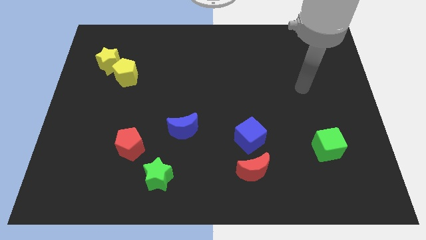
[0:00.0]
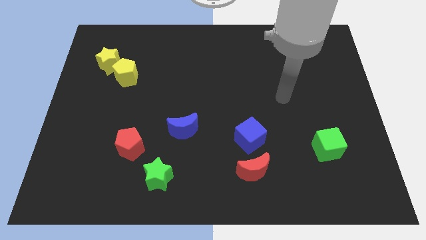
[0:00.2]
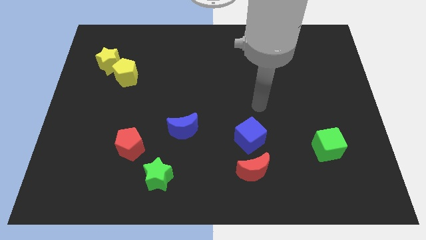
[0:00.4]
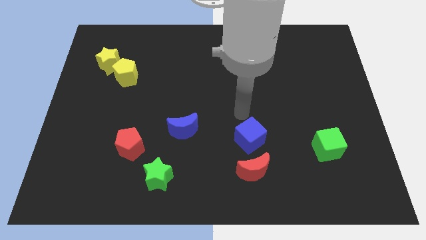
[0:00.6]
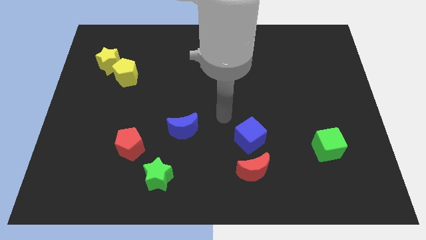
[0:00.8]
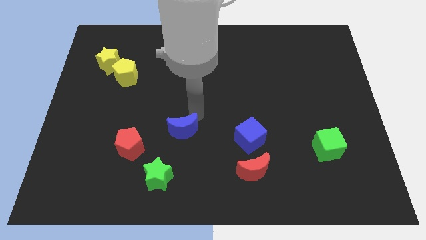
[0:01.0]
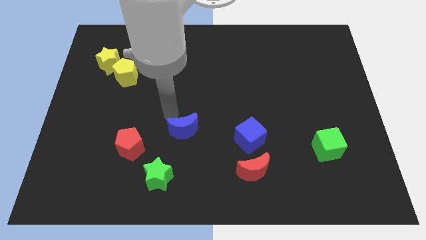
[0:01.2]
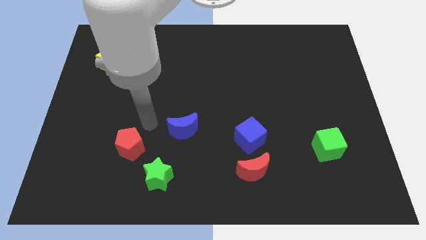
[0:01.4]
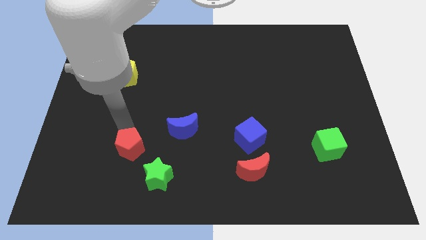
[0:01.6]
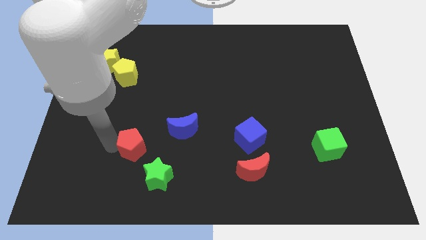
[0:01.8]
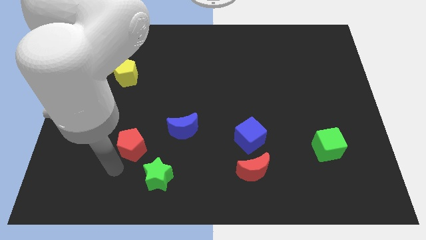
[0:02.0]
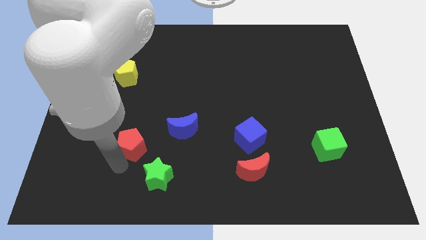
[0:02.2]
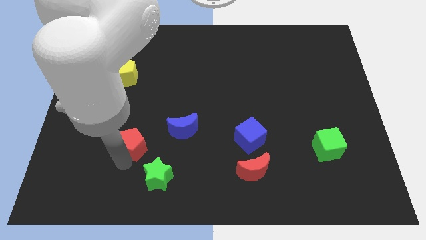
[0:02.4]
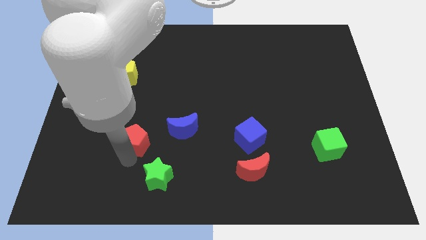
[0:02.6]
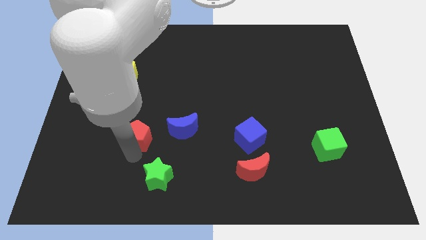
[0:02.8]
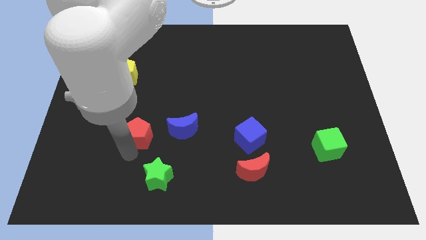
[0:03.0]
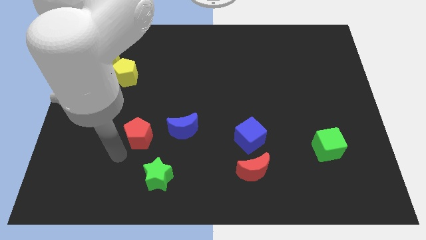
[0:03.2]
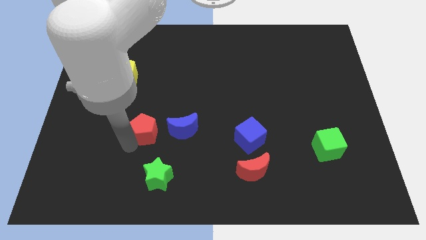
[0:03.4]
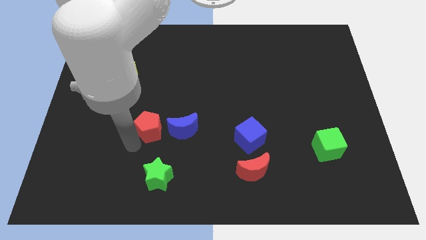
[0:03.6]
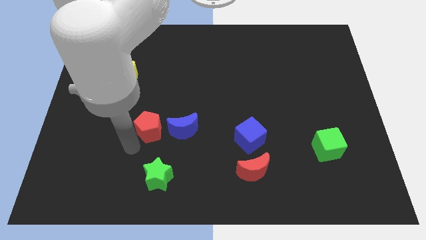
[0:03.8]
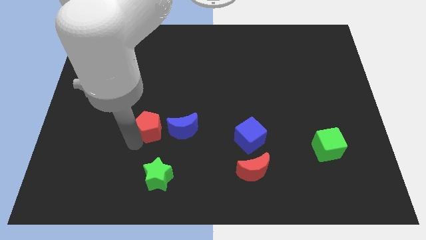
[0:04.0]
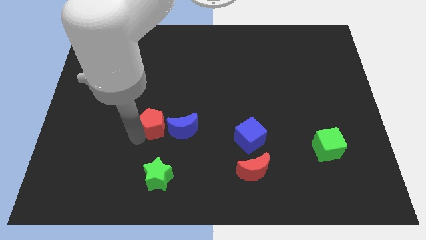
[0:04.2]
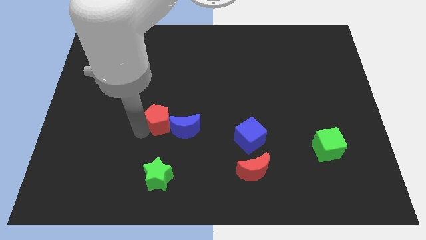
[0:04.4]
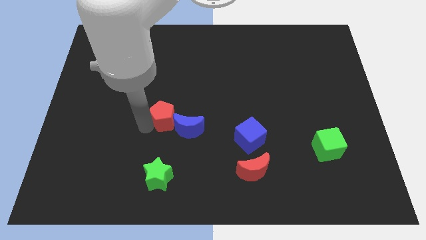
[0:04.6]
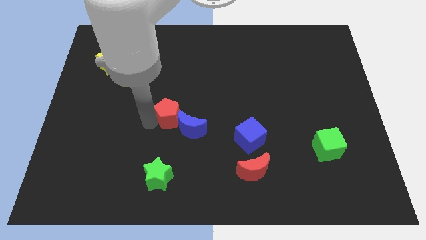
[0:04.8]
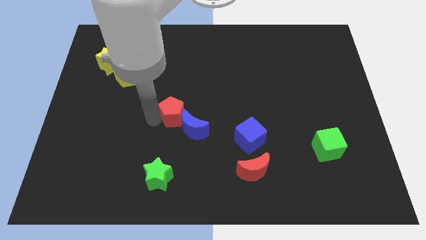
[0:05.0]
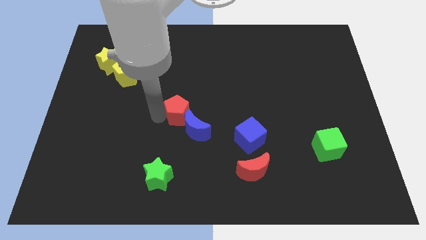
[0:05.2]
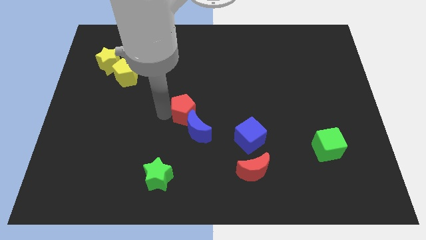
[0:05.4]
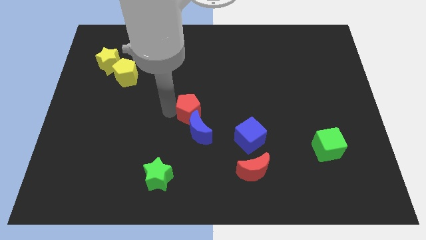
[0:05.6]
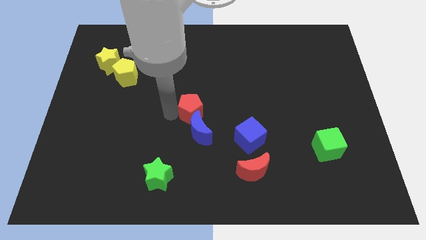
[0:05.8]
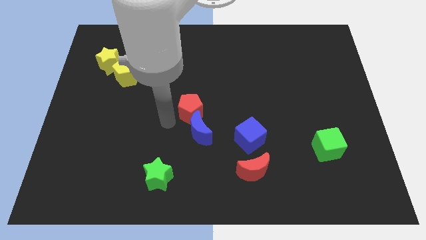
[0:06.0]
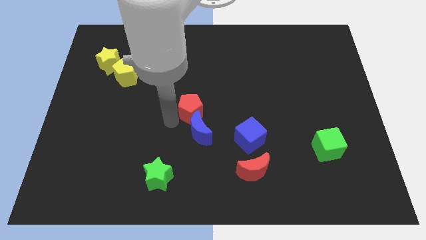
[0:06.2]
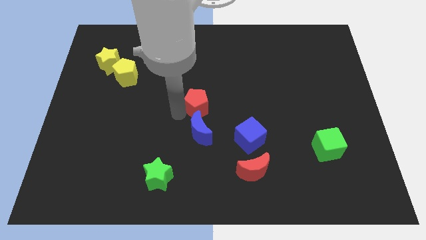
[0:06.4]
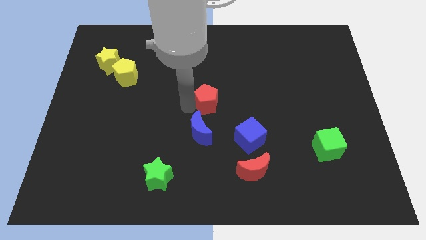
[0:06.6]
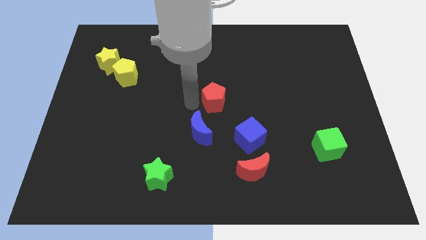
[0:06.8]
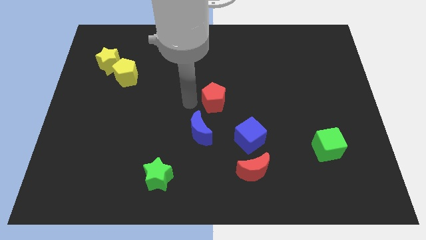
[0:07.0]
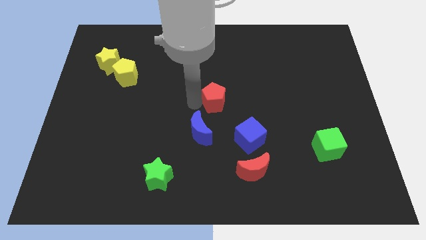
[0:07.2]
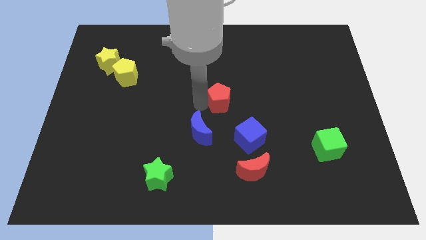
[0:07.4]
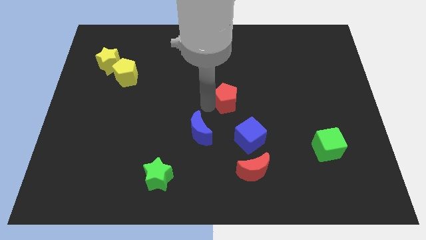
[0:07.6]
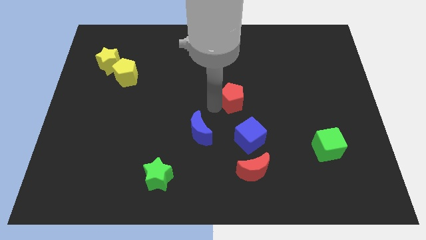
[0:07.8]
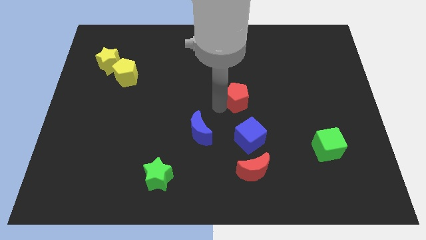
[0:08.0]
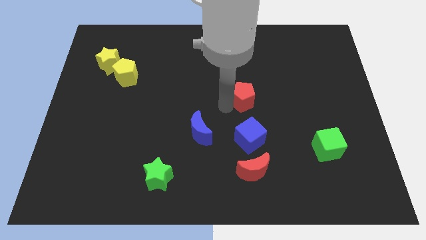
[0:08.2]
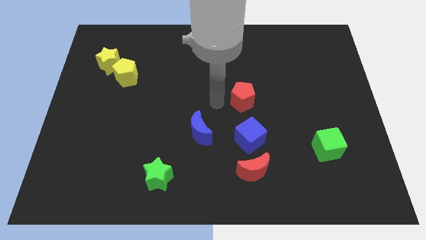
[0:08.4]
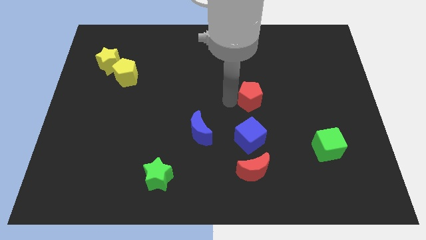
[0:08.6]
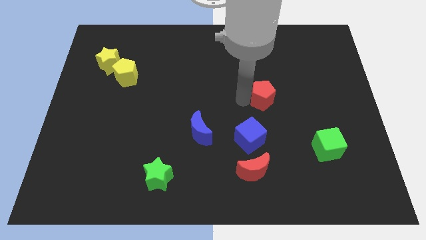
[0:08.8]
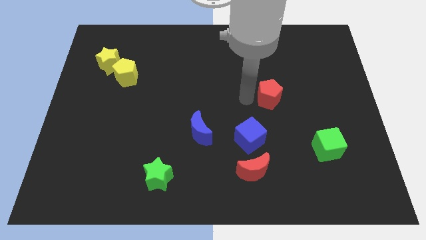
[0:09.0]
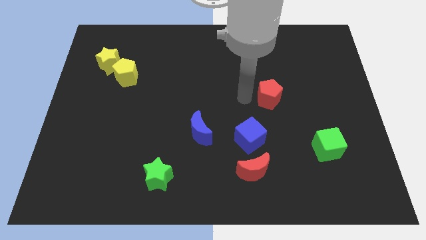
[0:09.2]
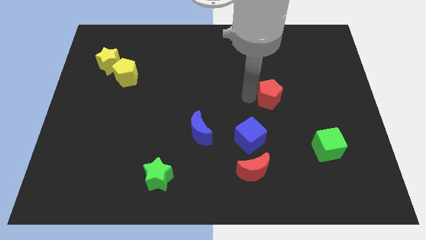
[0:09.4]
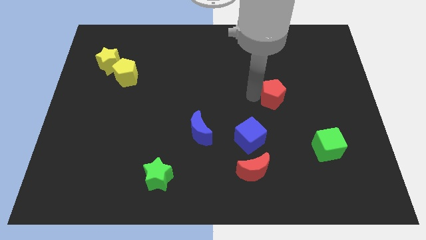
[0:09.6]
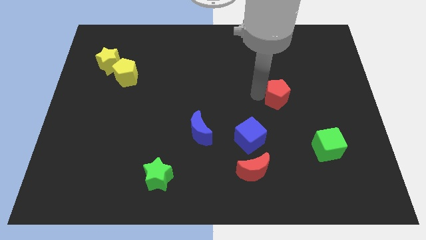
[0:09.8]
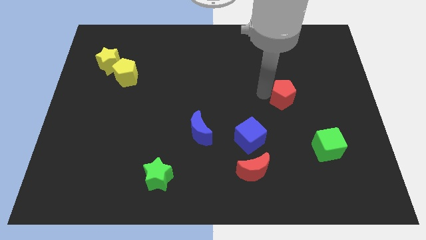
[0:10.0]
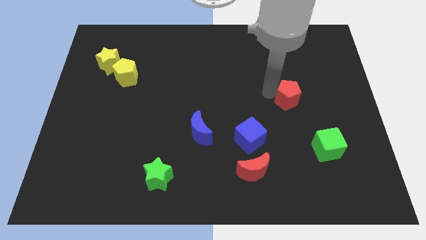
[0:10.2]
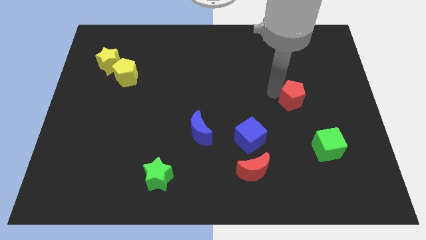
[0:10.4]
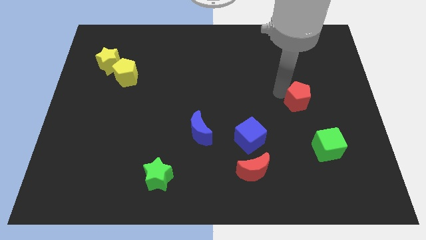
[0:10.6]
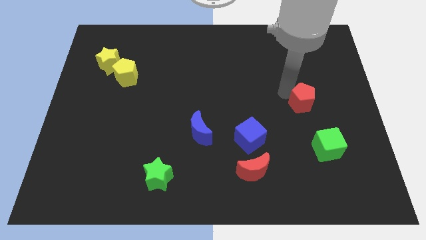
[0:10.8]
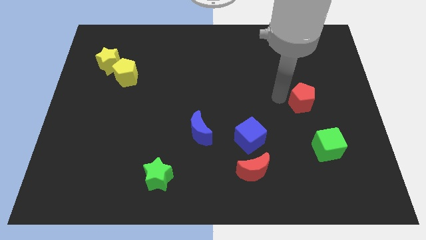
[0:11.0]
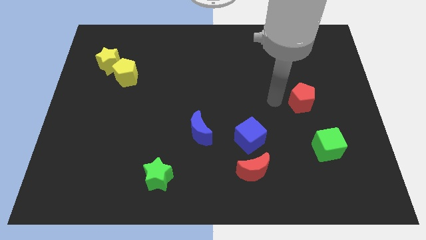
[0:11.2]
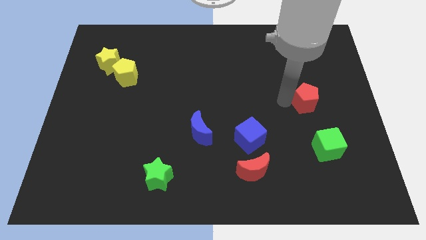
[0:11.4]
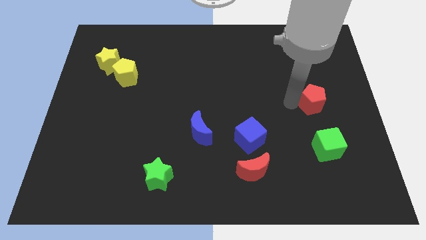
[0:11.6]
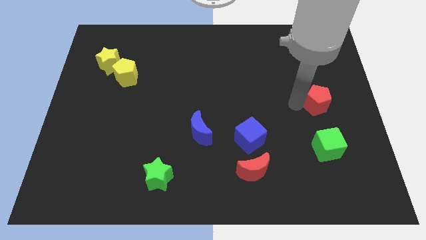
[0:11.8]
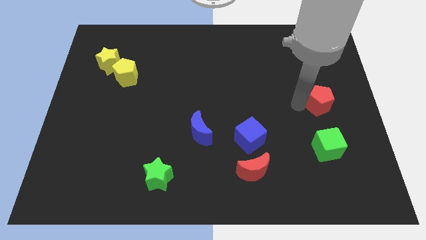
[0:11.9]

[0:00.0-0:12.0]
move the red pentagon to the right side of the board
